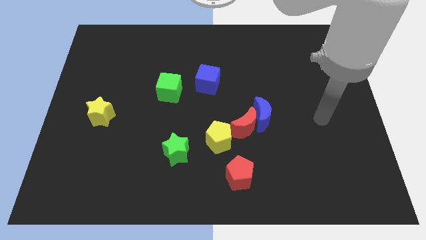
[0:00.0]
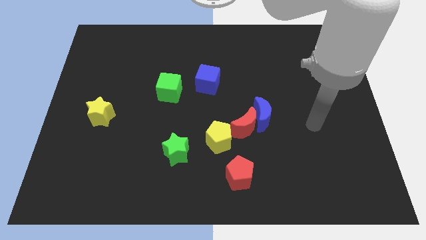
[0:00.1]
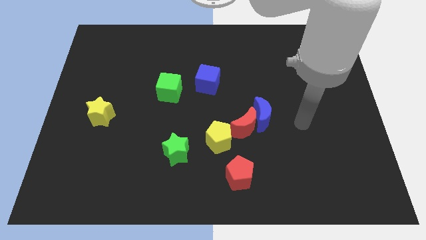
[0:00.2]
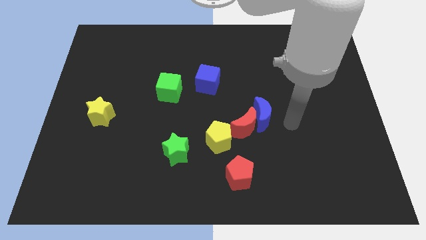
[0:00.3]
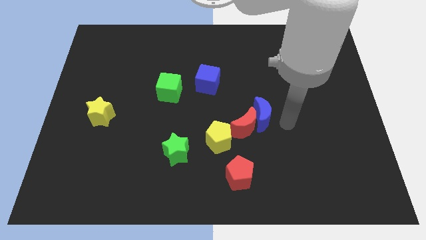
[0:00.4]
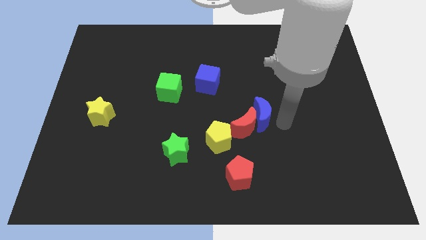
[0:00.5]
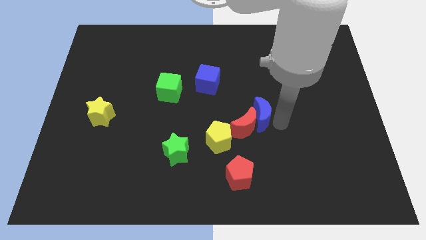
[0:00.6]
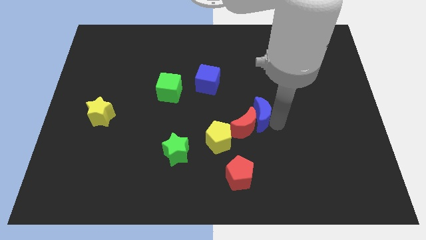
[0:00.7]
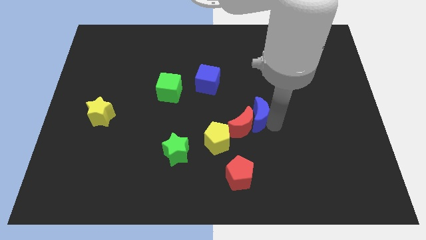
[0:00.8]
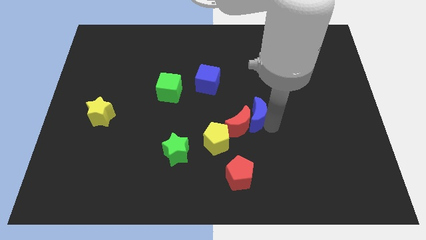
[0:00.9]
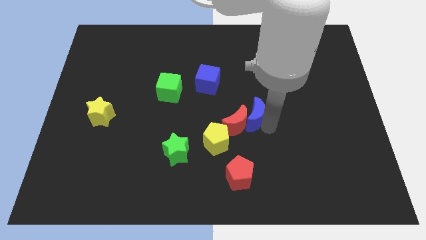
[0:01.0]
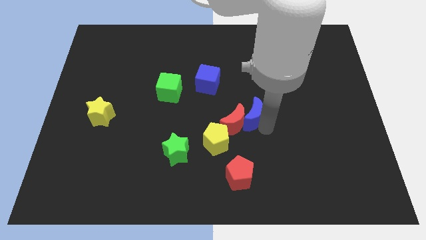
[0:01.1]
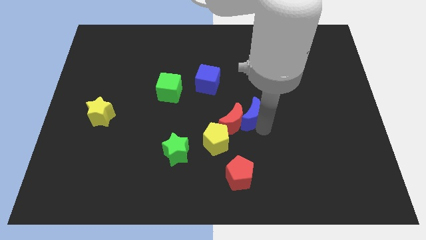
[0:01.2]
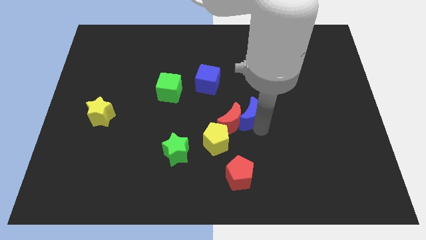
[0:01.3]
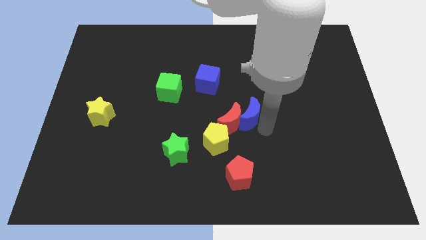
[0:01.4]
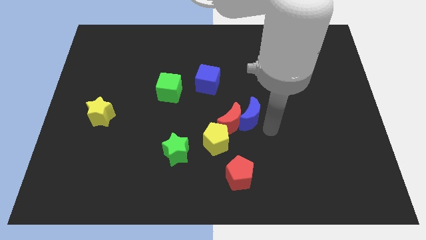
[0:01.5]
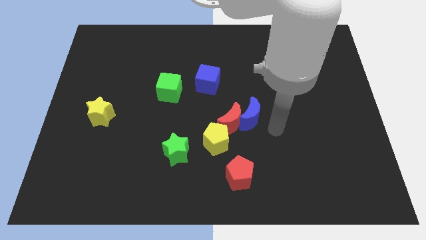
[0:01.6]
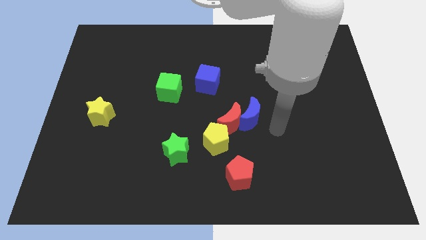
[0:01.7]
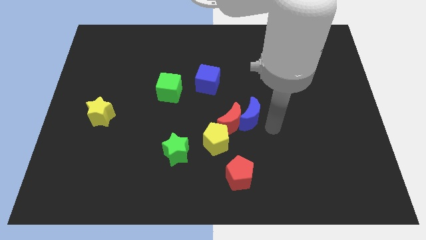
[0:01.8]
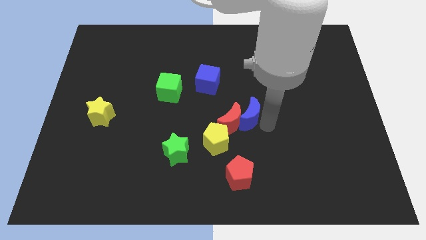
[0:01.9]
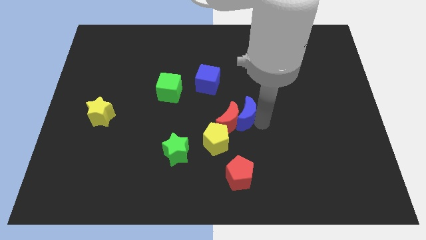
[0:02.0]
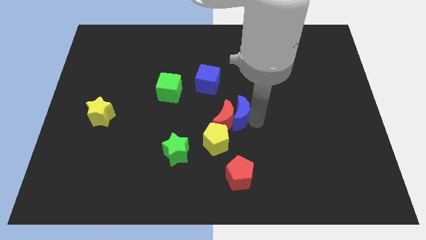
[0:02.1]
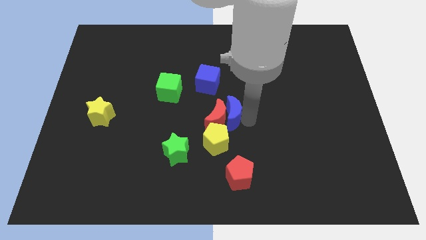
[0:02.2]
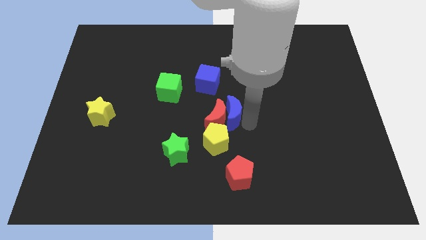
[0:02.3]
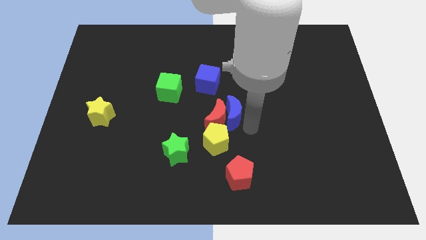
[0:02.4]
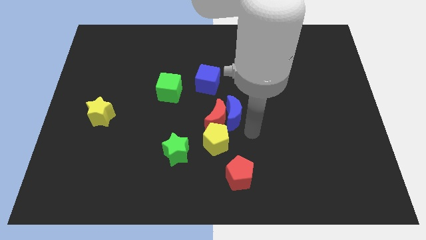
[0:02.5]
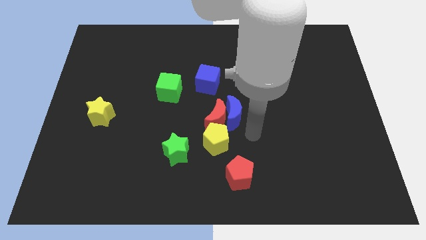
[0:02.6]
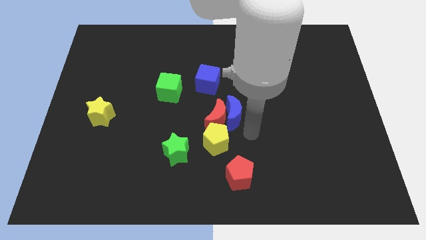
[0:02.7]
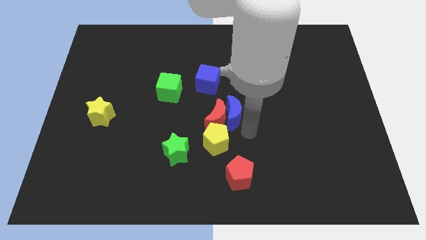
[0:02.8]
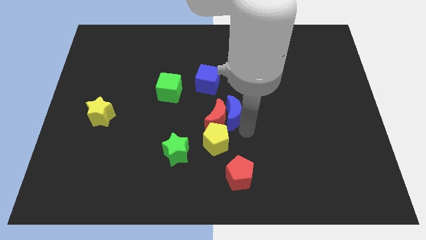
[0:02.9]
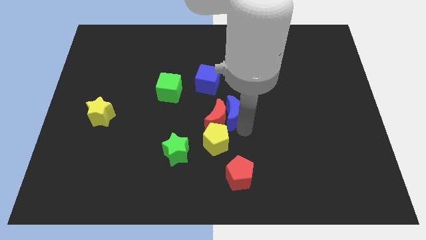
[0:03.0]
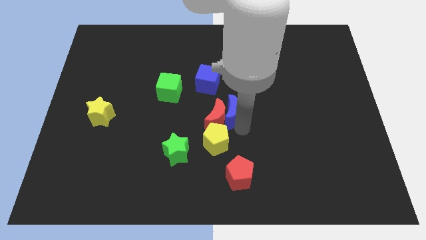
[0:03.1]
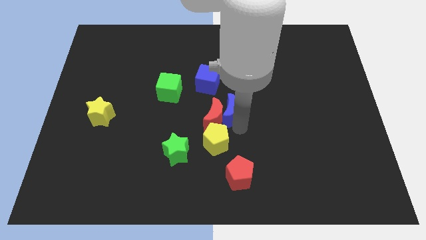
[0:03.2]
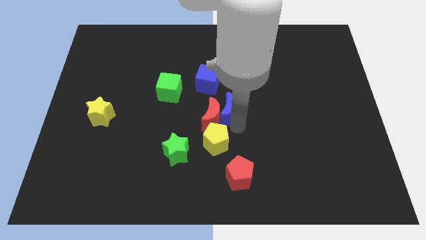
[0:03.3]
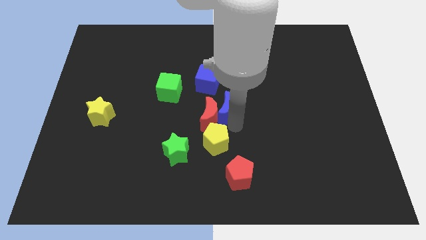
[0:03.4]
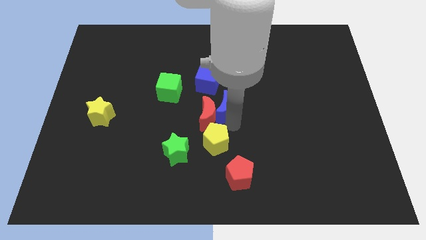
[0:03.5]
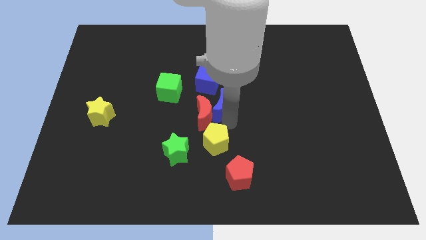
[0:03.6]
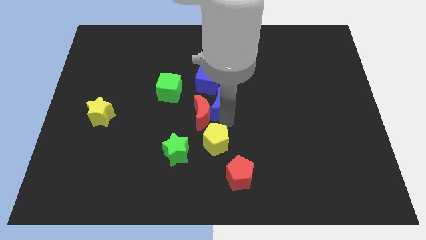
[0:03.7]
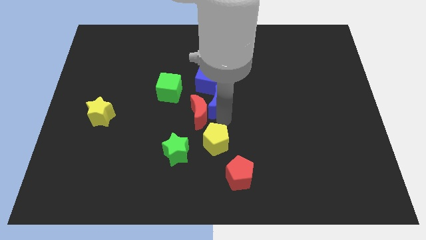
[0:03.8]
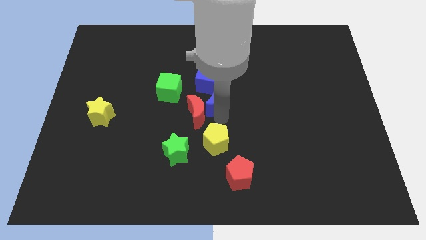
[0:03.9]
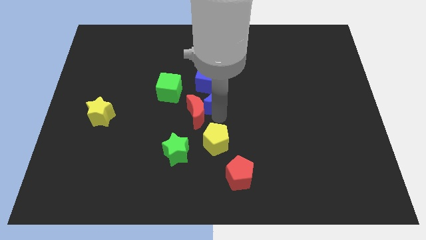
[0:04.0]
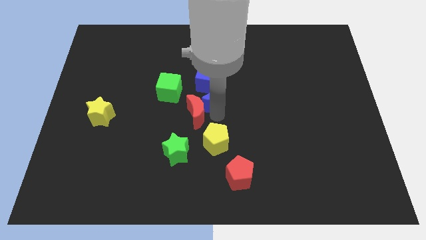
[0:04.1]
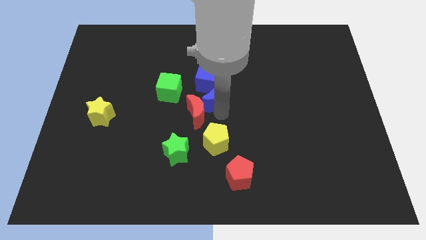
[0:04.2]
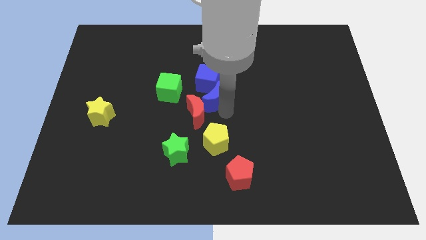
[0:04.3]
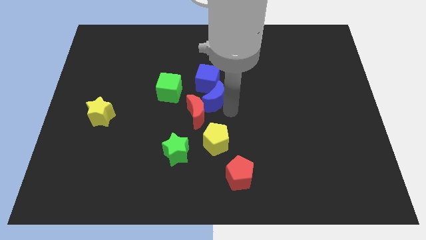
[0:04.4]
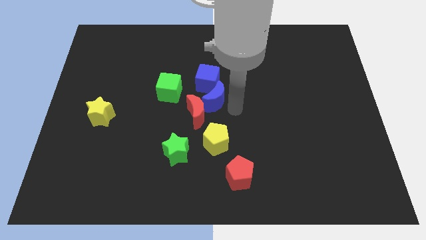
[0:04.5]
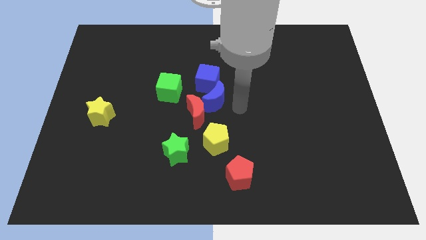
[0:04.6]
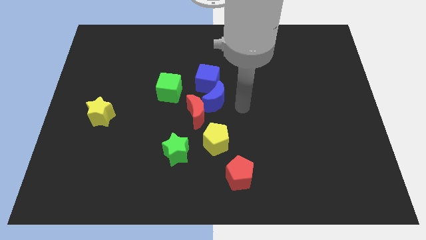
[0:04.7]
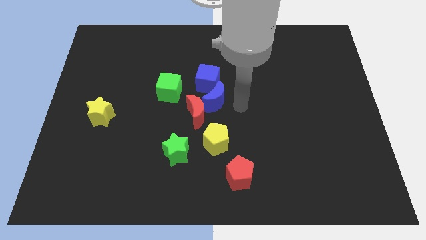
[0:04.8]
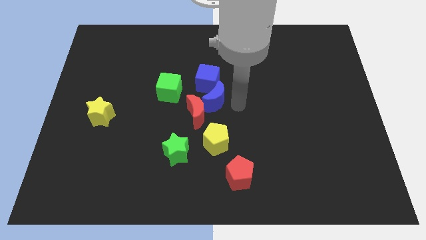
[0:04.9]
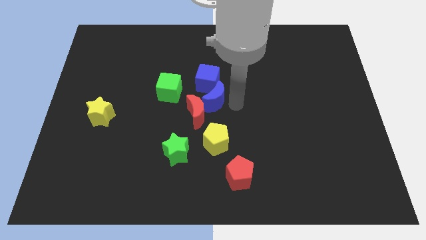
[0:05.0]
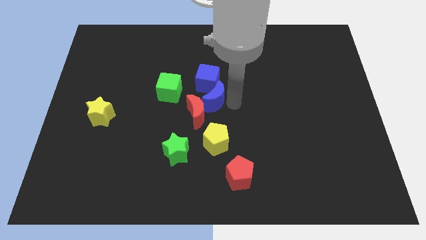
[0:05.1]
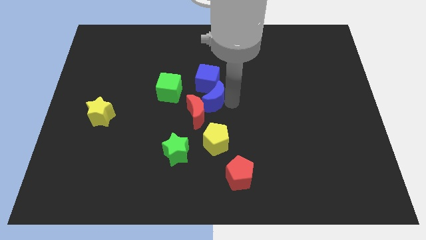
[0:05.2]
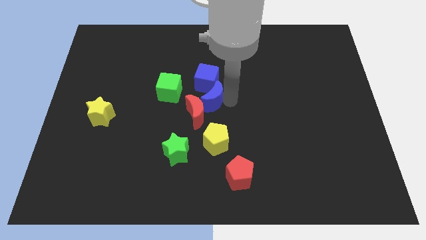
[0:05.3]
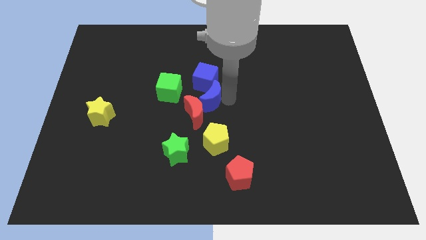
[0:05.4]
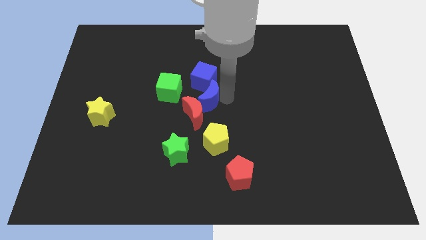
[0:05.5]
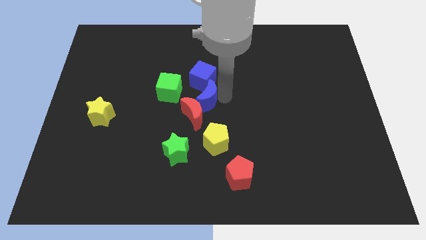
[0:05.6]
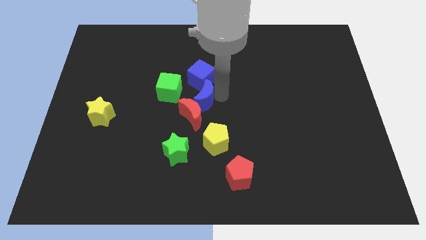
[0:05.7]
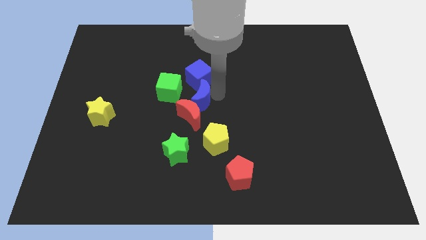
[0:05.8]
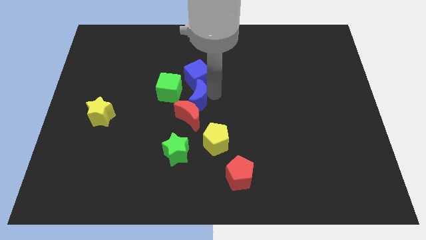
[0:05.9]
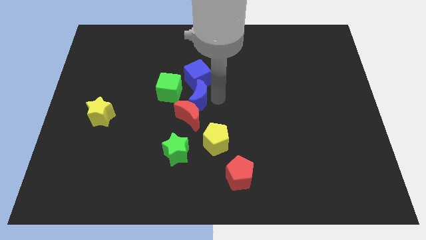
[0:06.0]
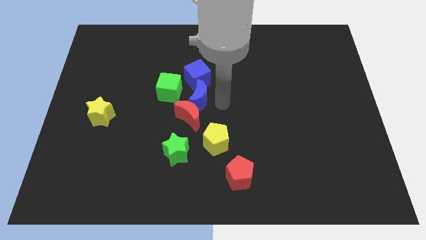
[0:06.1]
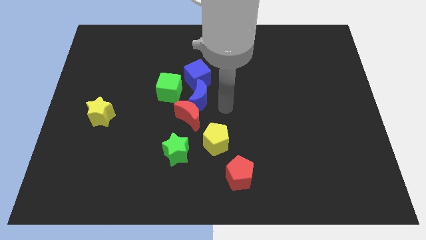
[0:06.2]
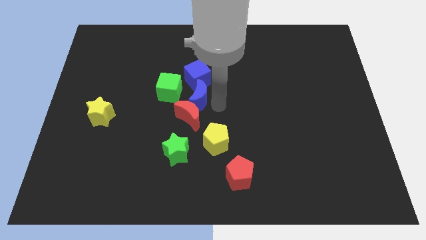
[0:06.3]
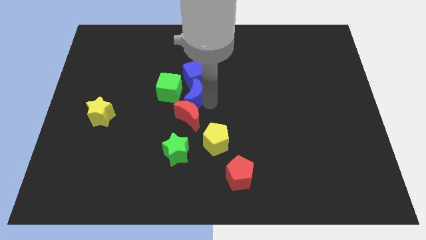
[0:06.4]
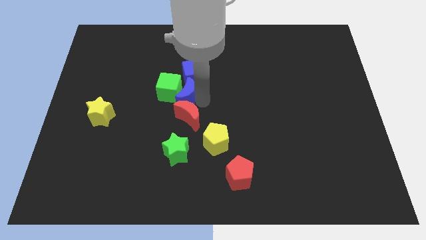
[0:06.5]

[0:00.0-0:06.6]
push the blue moon close to the green cube

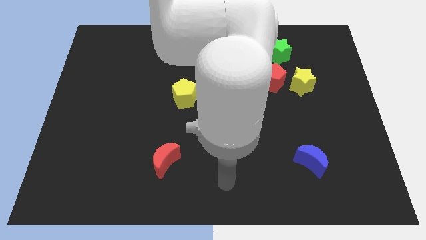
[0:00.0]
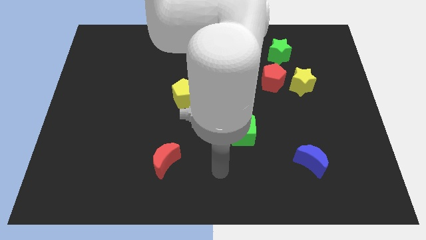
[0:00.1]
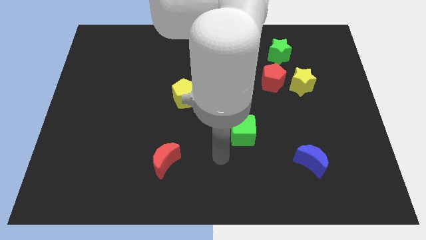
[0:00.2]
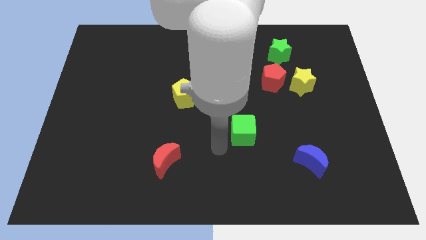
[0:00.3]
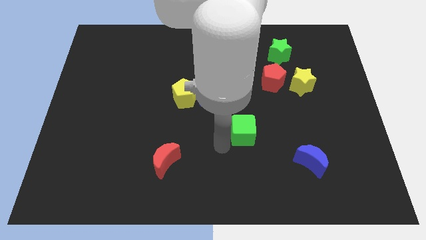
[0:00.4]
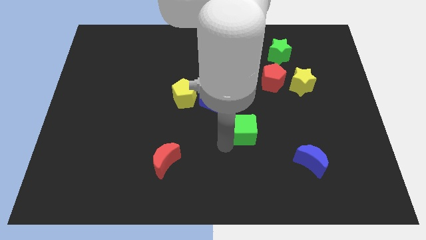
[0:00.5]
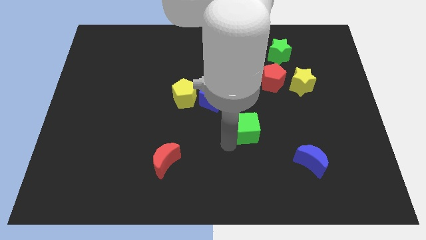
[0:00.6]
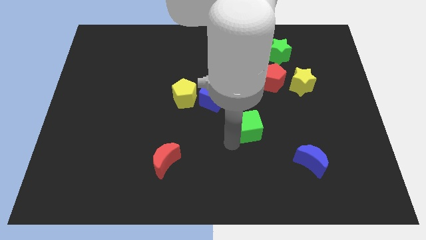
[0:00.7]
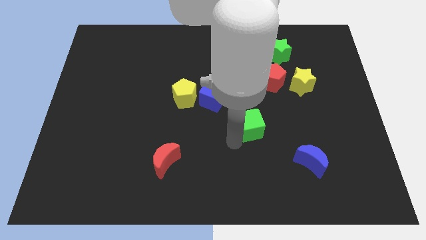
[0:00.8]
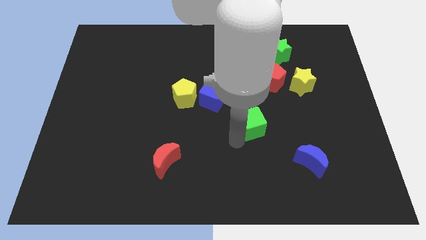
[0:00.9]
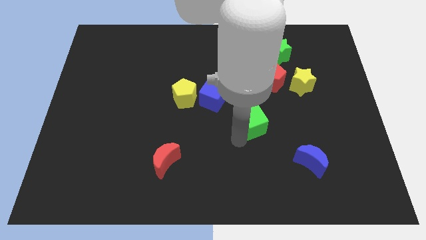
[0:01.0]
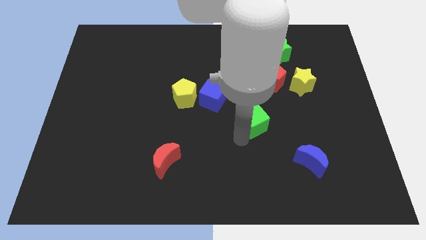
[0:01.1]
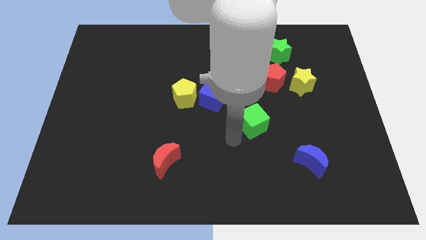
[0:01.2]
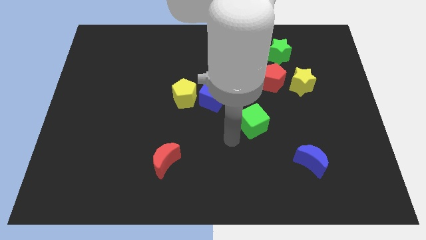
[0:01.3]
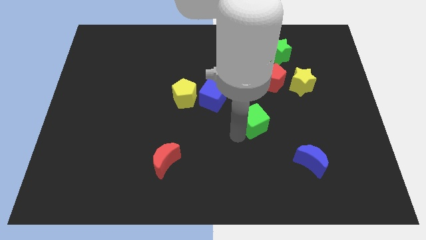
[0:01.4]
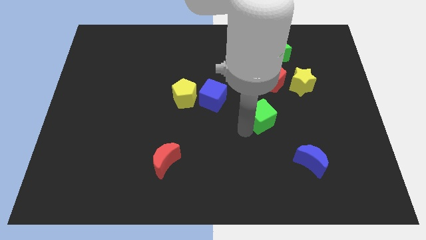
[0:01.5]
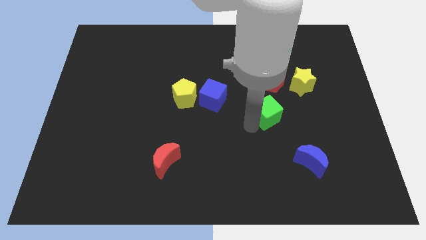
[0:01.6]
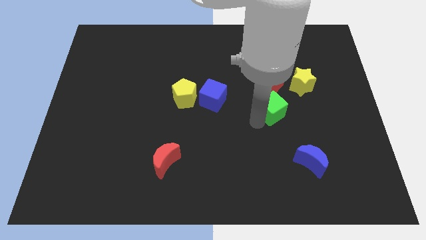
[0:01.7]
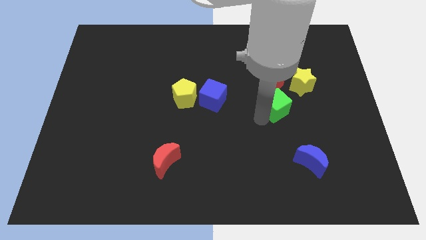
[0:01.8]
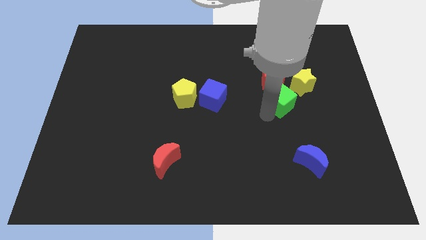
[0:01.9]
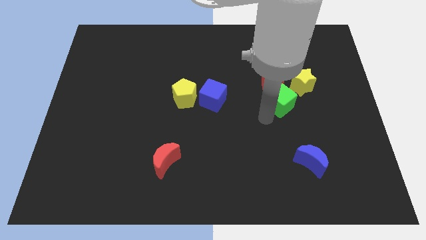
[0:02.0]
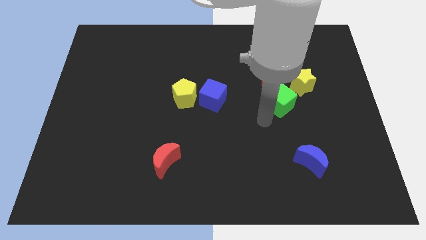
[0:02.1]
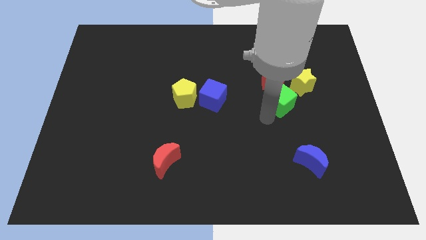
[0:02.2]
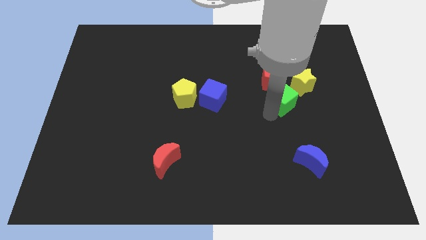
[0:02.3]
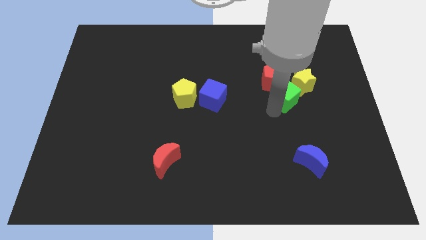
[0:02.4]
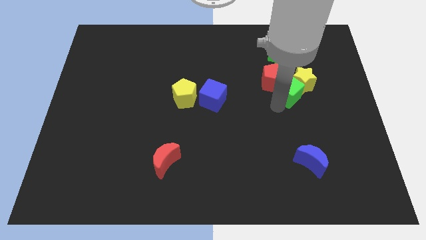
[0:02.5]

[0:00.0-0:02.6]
slide the green cube to the yellow star
